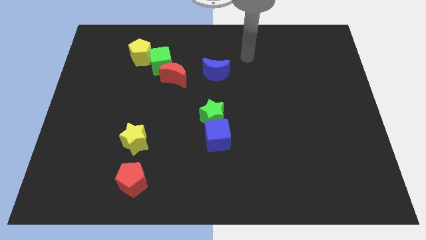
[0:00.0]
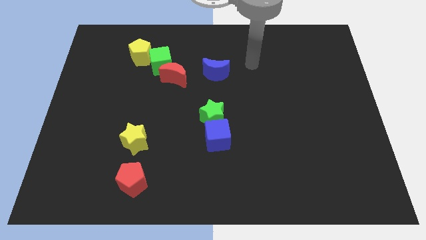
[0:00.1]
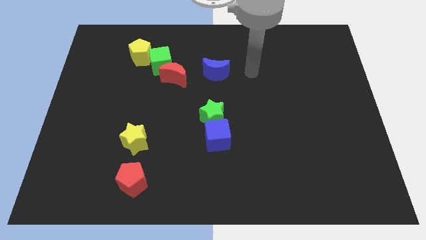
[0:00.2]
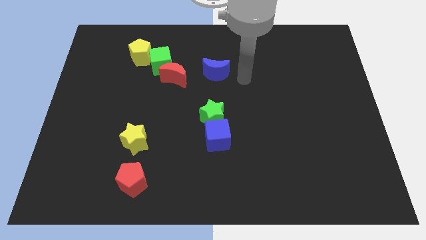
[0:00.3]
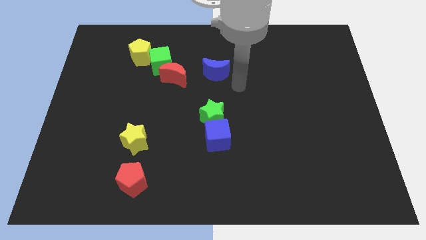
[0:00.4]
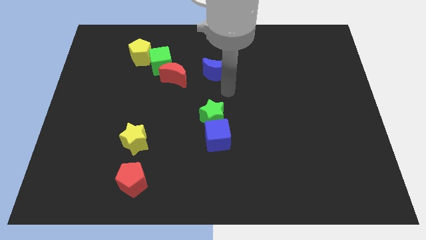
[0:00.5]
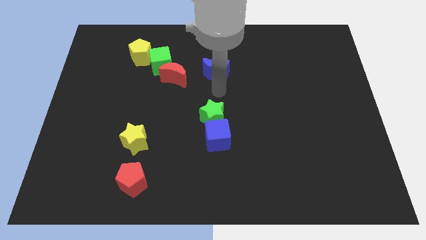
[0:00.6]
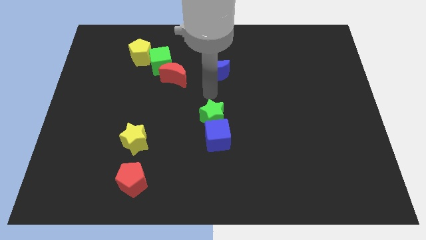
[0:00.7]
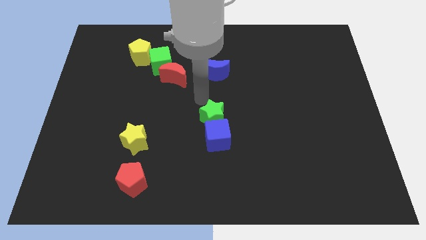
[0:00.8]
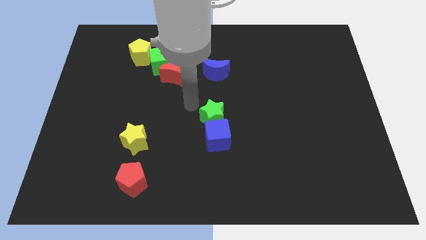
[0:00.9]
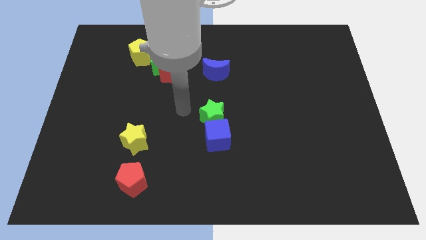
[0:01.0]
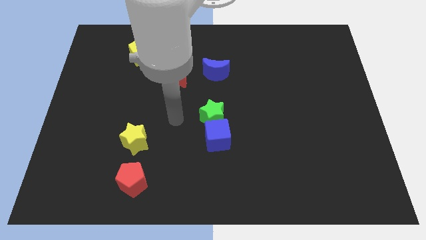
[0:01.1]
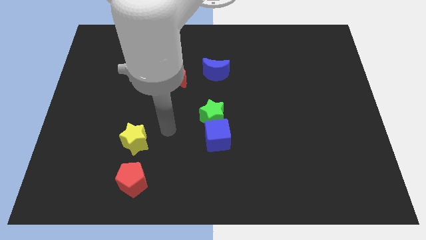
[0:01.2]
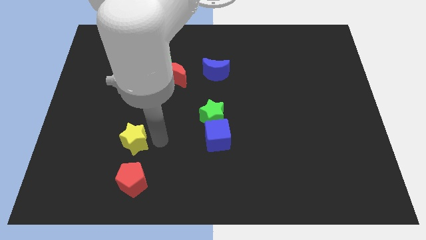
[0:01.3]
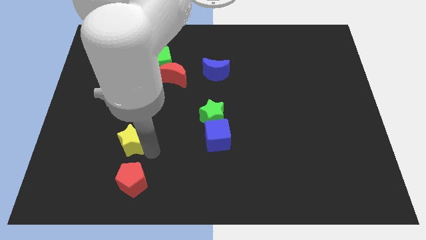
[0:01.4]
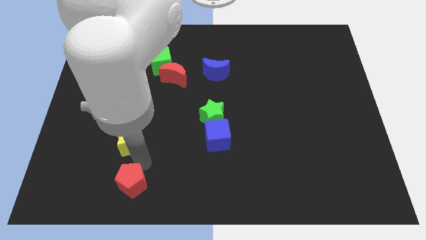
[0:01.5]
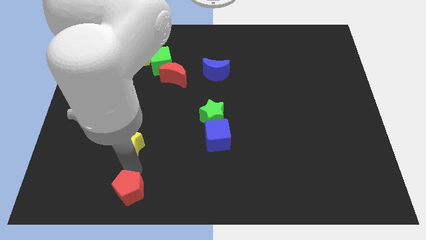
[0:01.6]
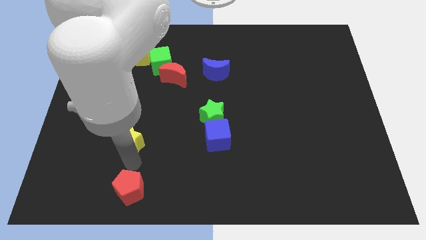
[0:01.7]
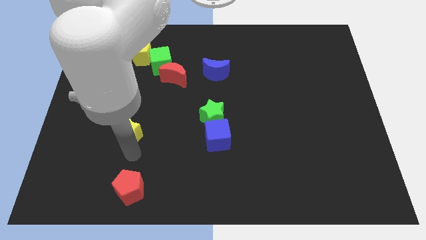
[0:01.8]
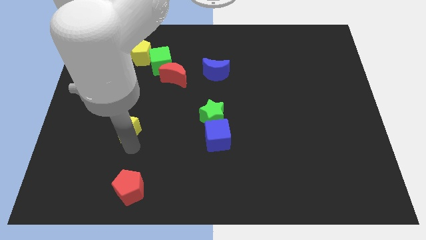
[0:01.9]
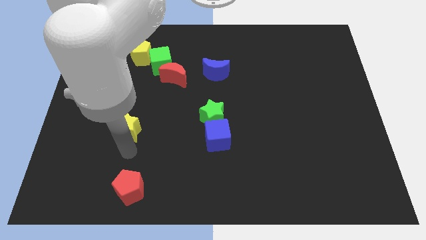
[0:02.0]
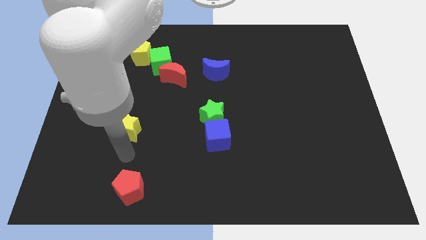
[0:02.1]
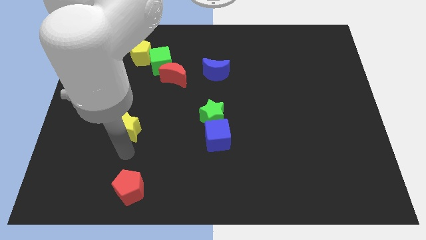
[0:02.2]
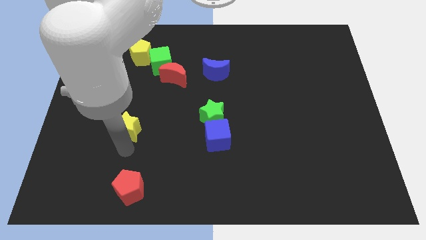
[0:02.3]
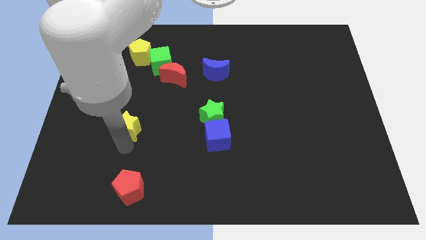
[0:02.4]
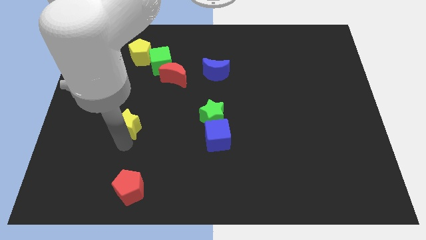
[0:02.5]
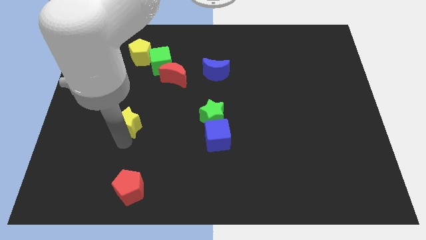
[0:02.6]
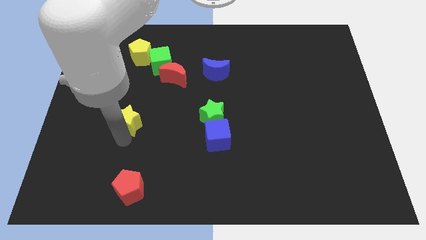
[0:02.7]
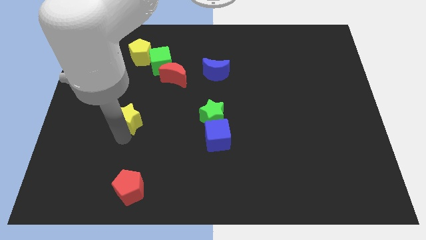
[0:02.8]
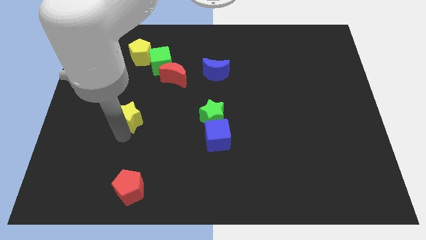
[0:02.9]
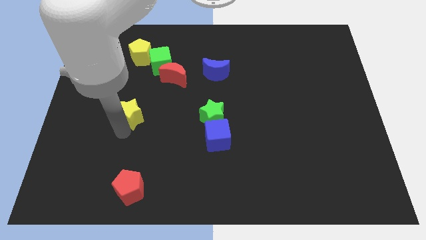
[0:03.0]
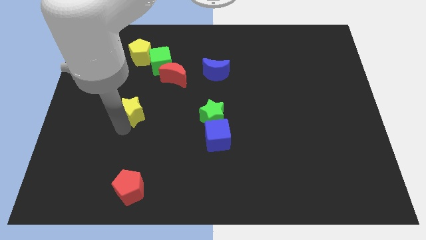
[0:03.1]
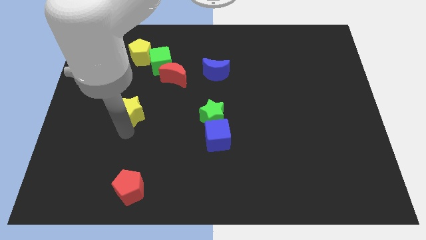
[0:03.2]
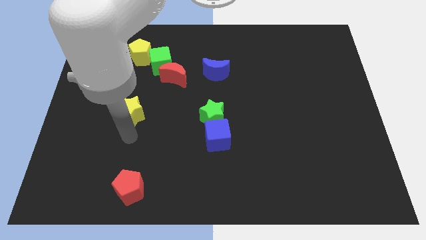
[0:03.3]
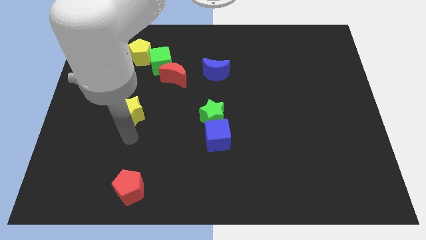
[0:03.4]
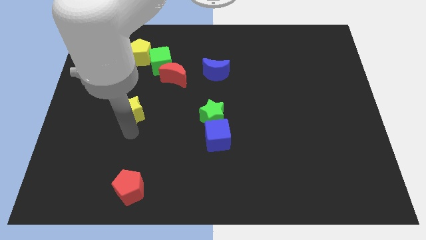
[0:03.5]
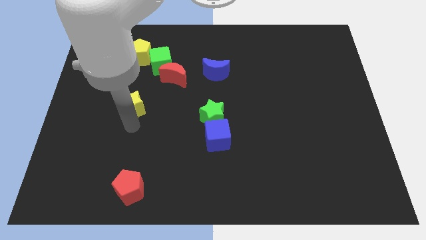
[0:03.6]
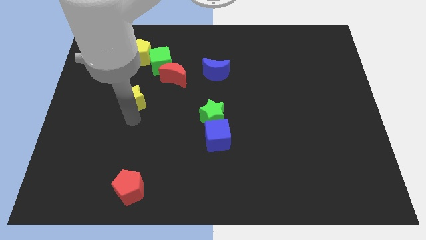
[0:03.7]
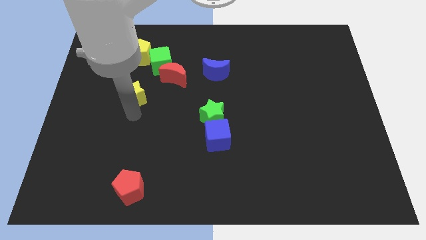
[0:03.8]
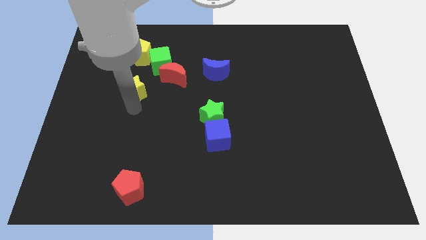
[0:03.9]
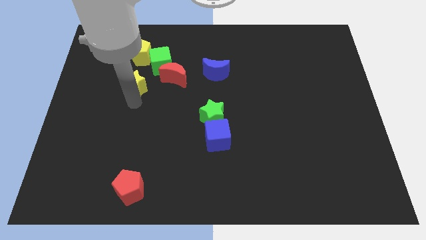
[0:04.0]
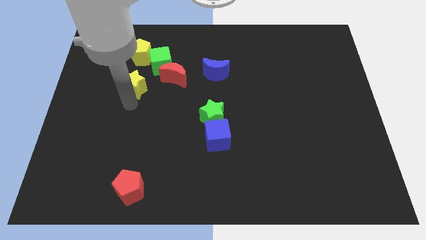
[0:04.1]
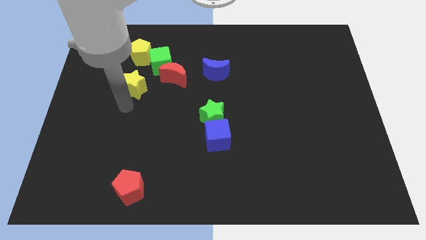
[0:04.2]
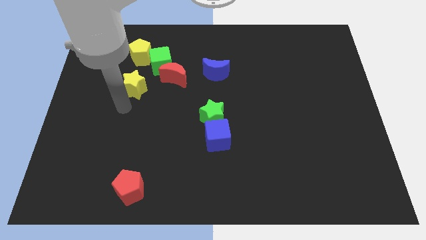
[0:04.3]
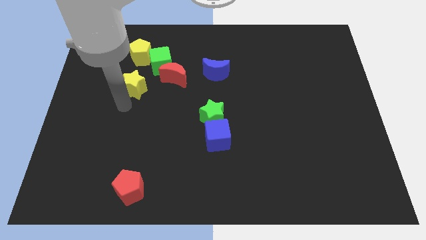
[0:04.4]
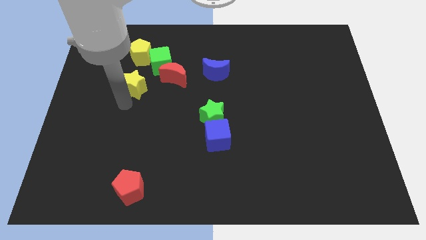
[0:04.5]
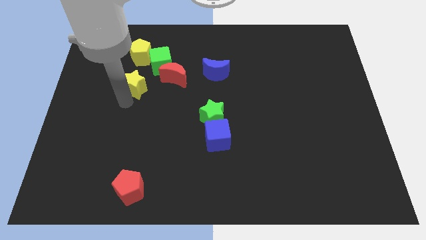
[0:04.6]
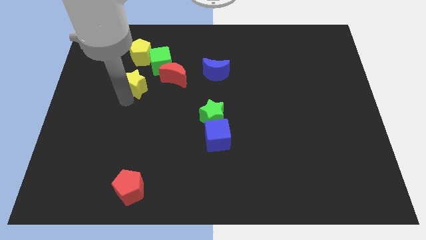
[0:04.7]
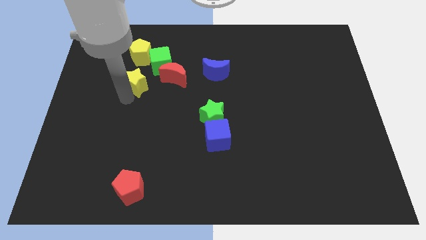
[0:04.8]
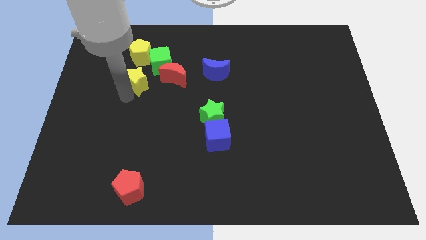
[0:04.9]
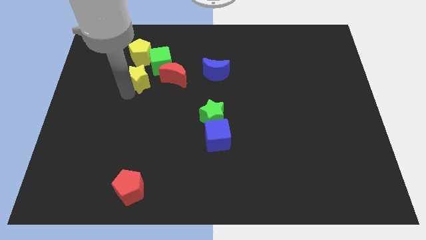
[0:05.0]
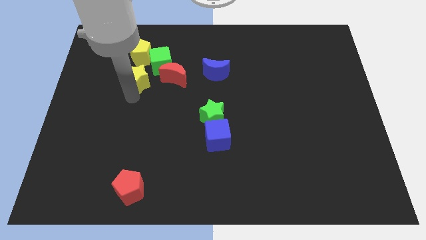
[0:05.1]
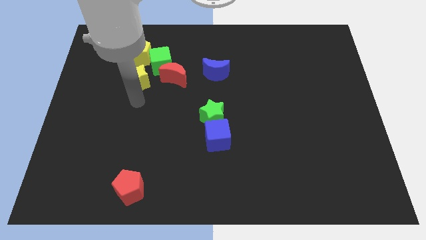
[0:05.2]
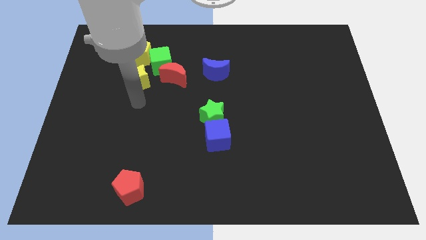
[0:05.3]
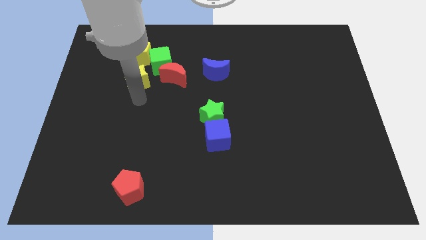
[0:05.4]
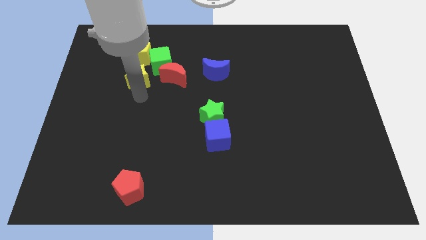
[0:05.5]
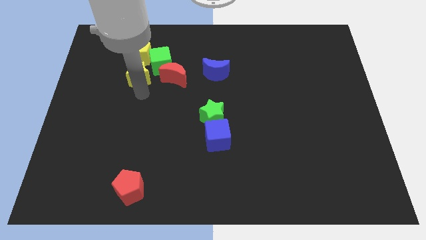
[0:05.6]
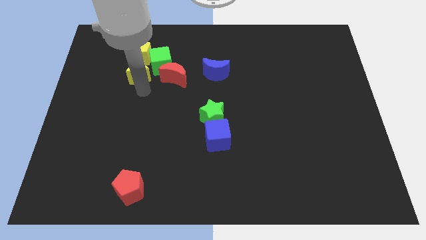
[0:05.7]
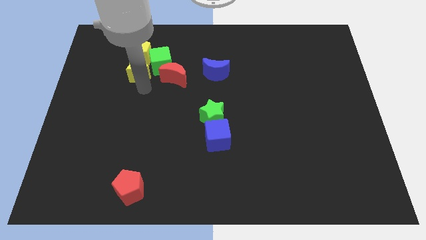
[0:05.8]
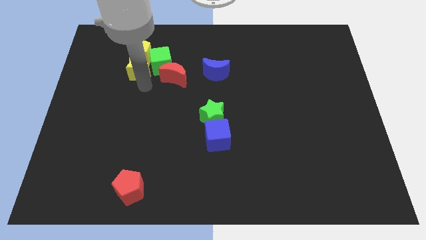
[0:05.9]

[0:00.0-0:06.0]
push the yellow star to the yellow pentagon

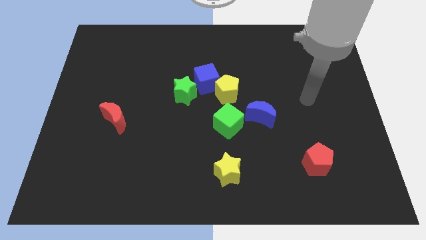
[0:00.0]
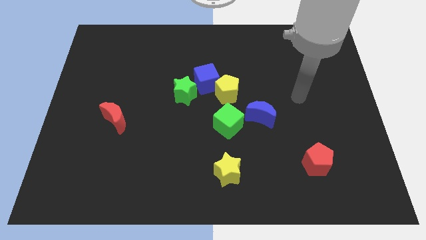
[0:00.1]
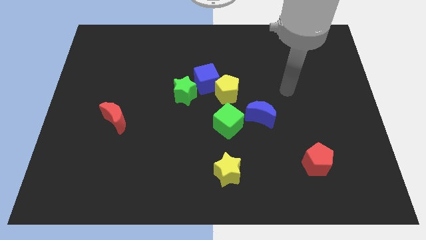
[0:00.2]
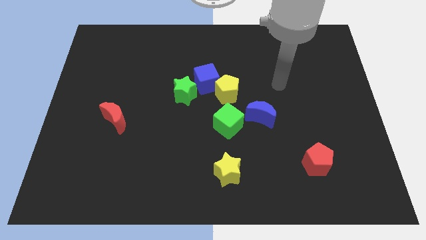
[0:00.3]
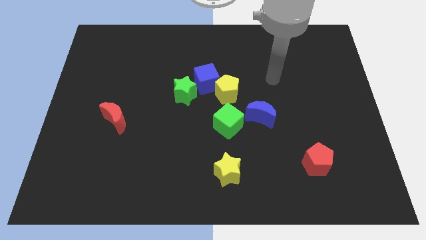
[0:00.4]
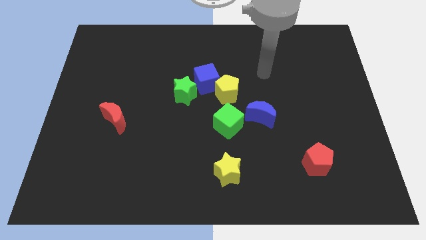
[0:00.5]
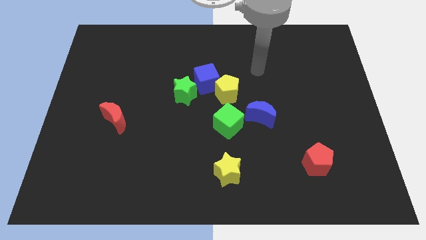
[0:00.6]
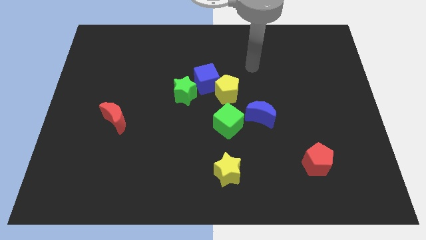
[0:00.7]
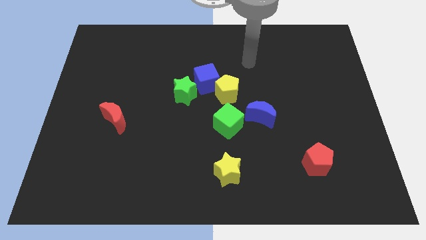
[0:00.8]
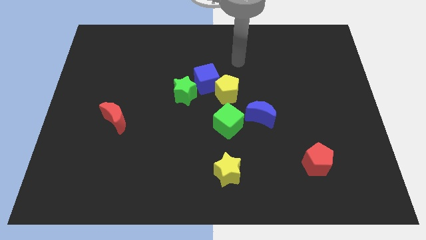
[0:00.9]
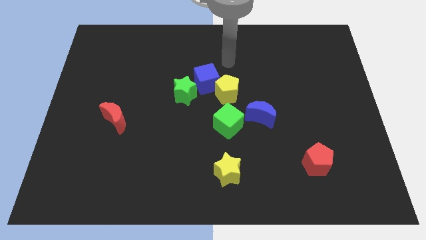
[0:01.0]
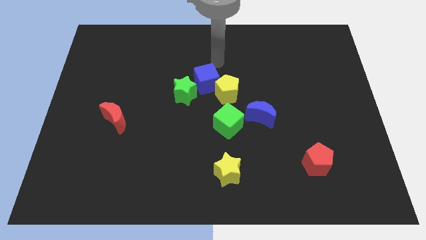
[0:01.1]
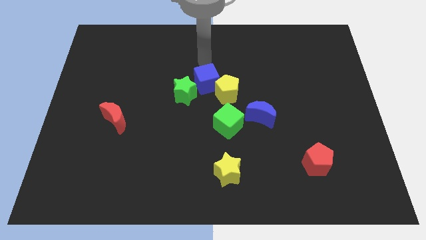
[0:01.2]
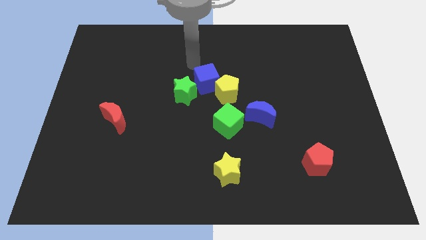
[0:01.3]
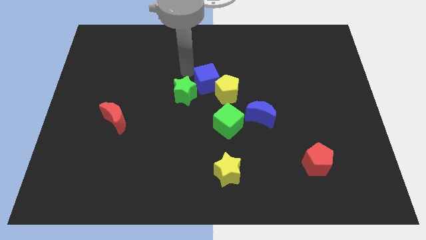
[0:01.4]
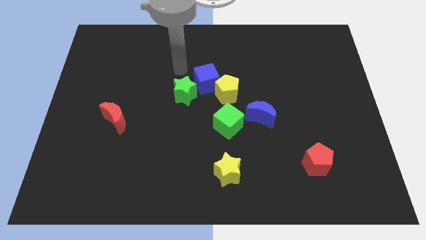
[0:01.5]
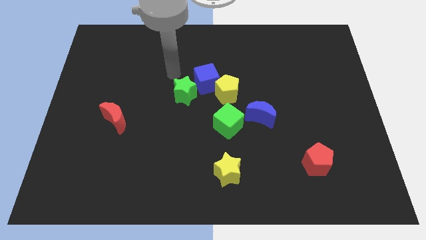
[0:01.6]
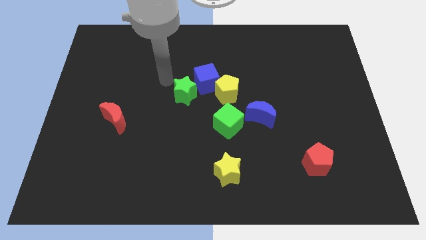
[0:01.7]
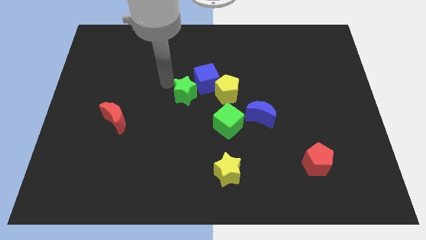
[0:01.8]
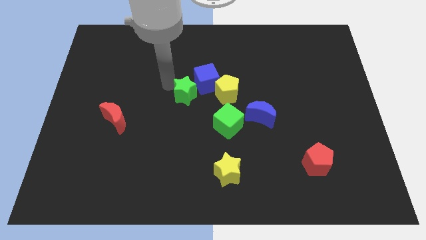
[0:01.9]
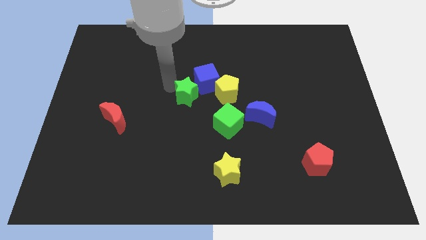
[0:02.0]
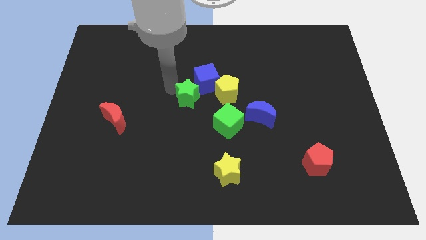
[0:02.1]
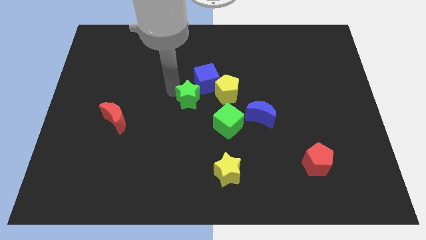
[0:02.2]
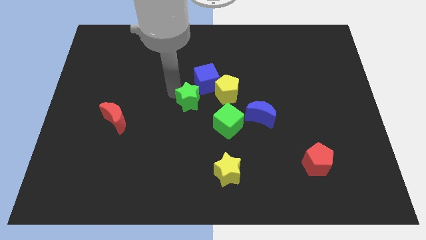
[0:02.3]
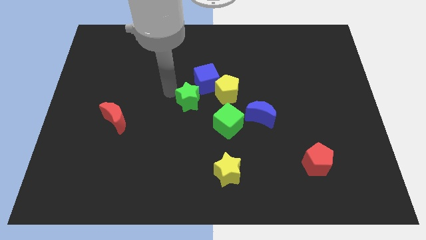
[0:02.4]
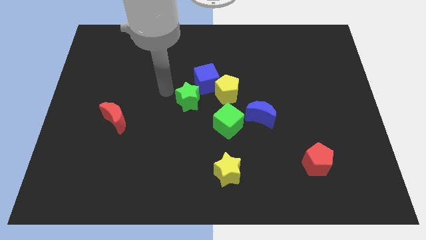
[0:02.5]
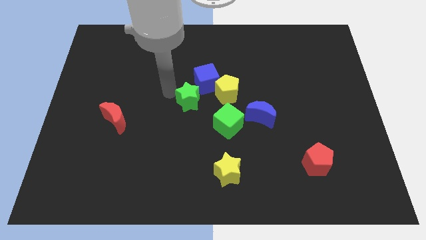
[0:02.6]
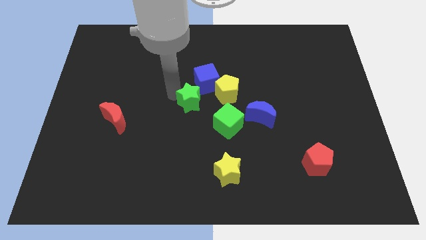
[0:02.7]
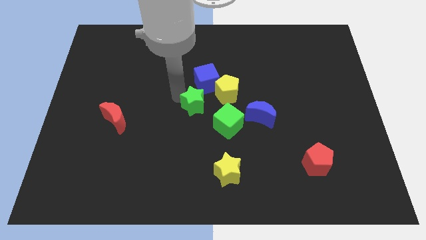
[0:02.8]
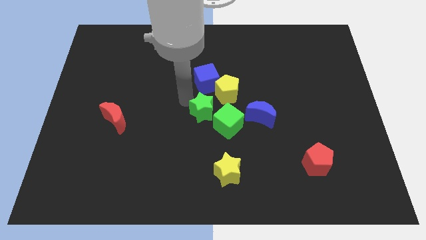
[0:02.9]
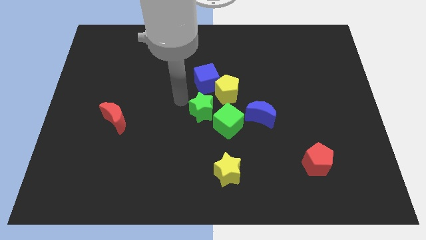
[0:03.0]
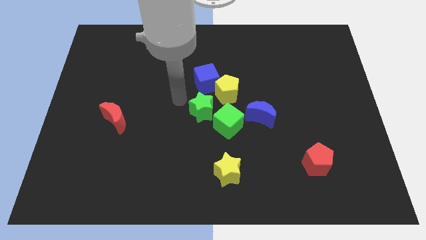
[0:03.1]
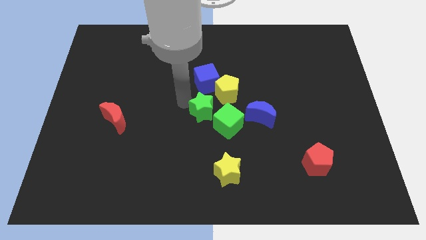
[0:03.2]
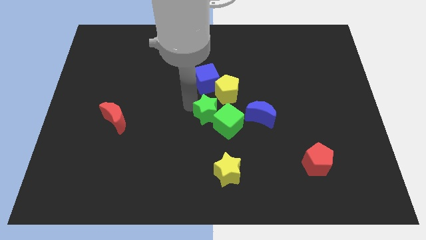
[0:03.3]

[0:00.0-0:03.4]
push the green star to the green cube
